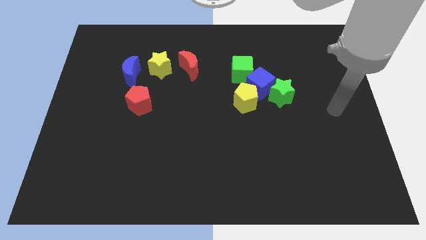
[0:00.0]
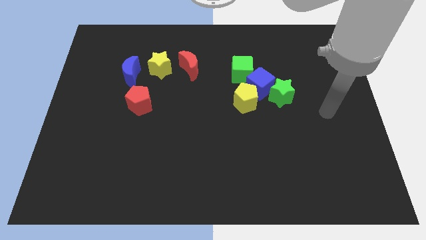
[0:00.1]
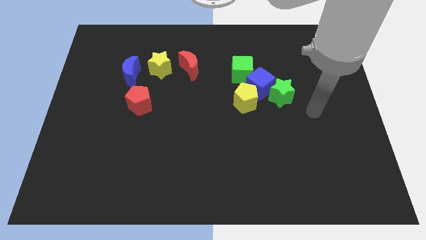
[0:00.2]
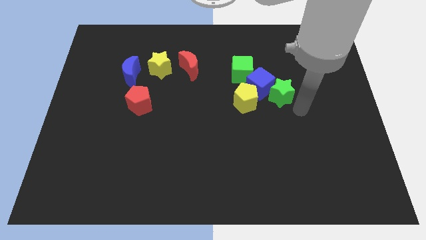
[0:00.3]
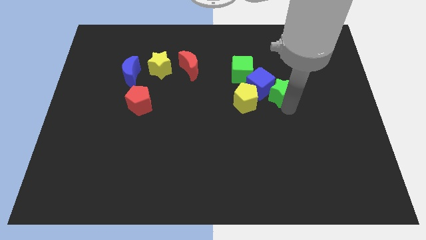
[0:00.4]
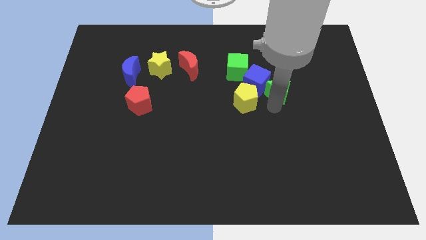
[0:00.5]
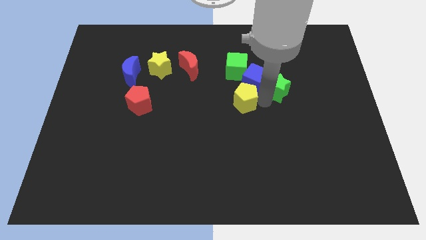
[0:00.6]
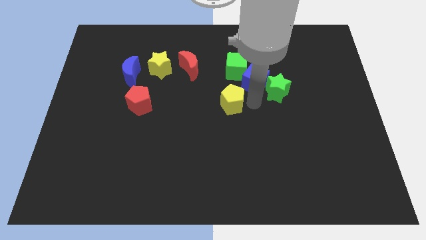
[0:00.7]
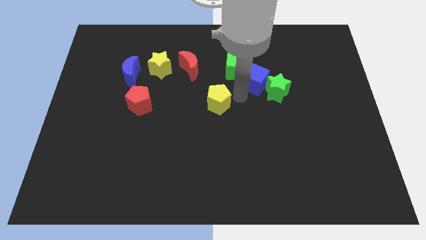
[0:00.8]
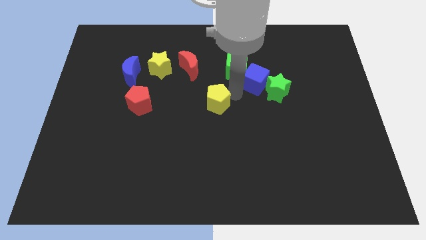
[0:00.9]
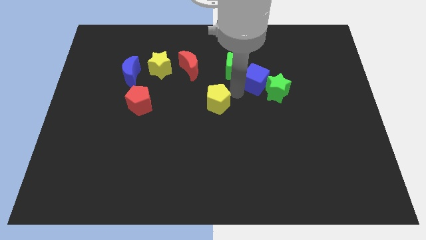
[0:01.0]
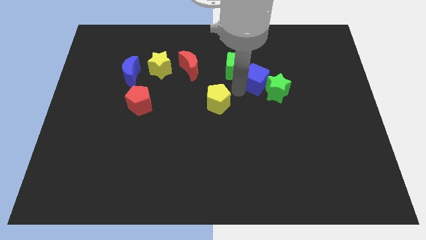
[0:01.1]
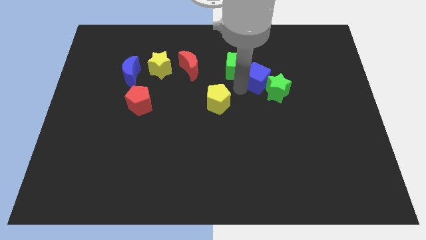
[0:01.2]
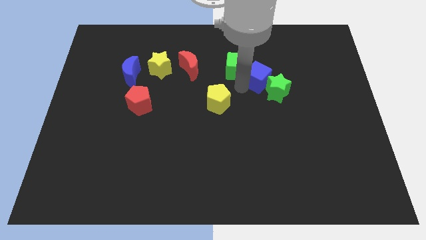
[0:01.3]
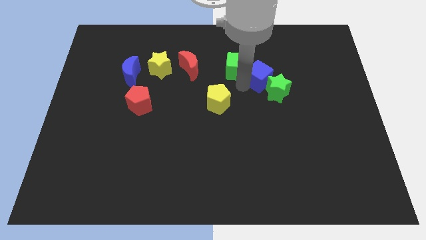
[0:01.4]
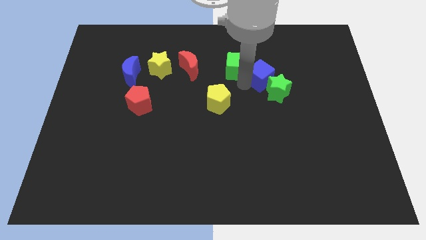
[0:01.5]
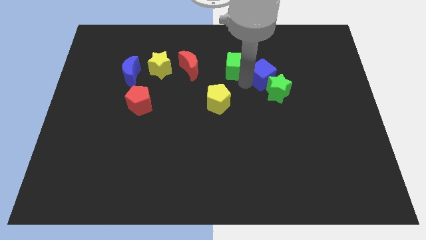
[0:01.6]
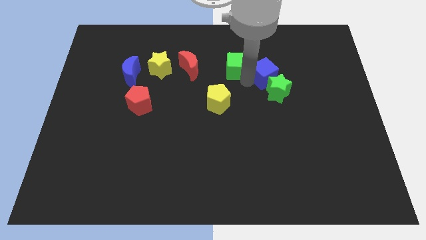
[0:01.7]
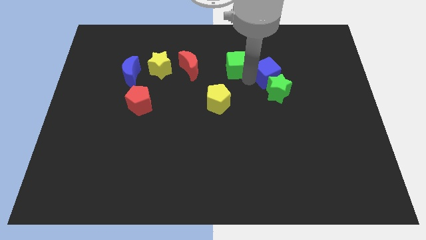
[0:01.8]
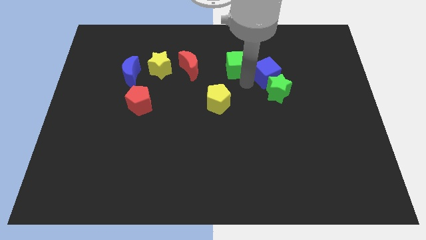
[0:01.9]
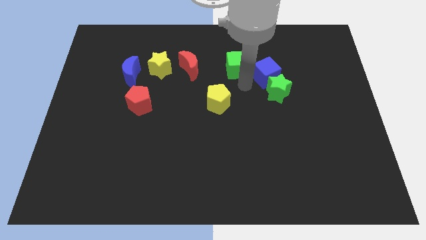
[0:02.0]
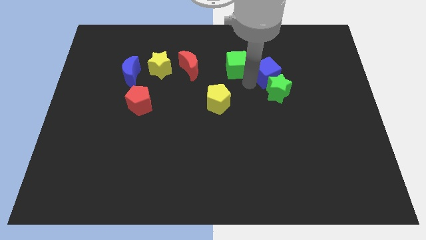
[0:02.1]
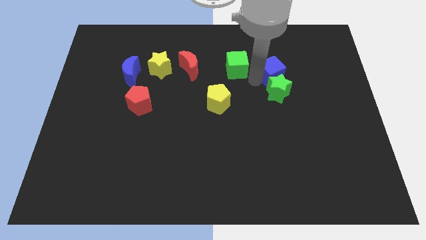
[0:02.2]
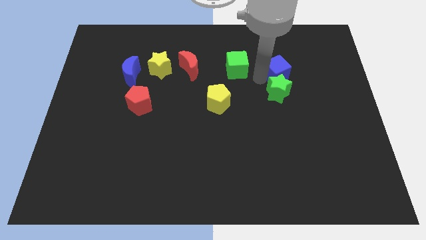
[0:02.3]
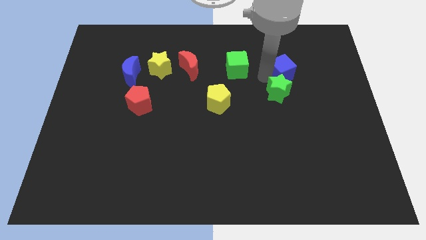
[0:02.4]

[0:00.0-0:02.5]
pull the blue cube apart from the clump

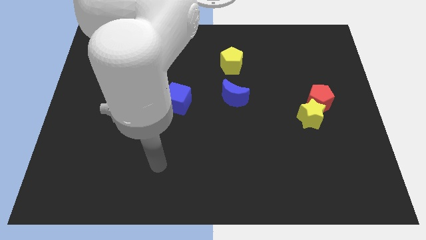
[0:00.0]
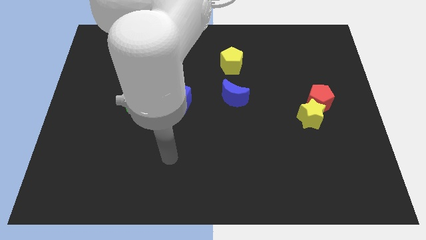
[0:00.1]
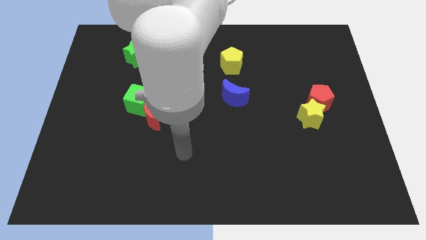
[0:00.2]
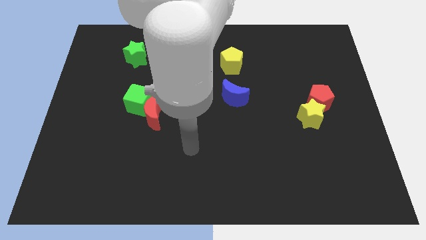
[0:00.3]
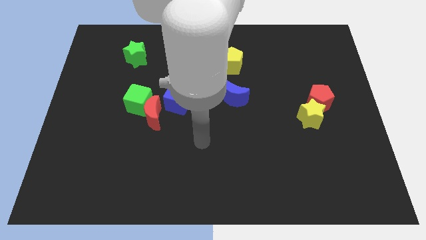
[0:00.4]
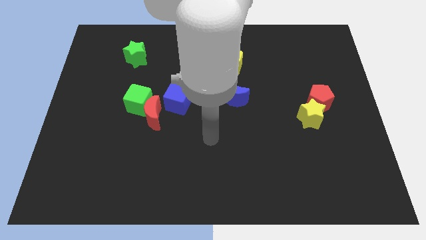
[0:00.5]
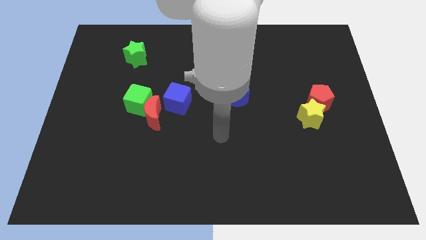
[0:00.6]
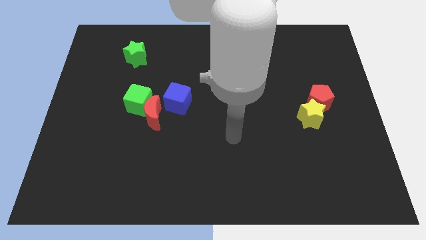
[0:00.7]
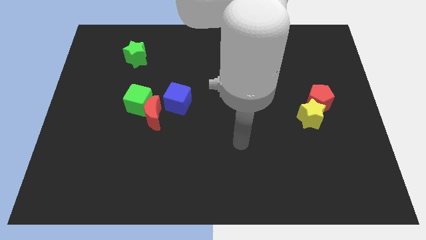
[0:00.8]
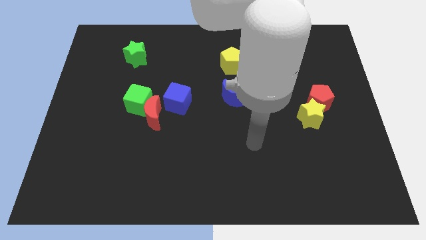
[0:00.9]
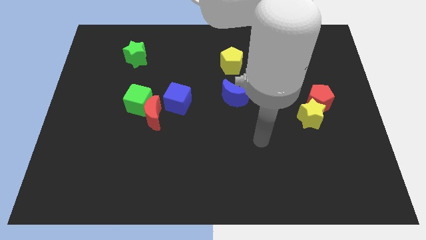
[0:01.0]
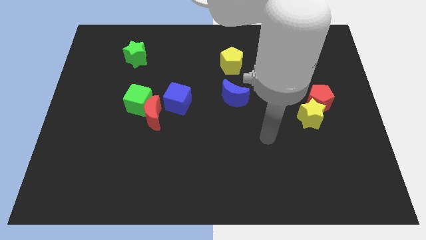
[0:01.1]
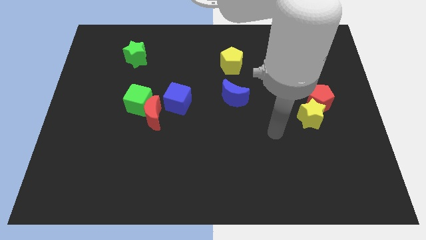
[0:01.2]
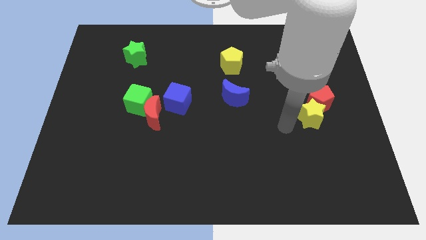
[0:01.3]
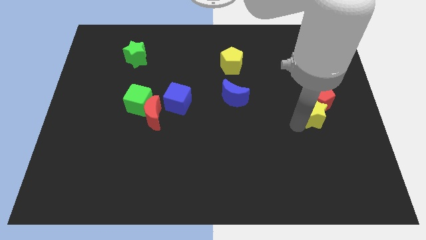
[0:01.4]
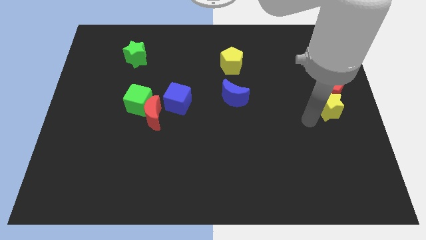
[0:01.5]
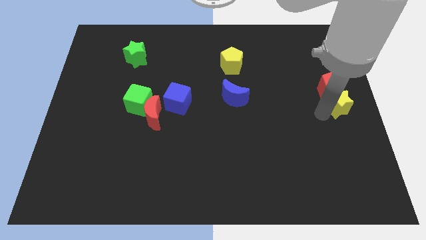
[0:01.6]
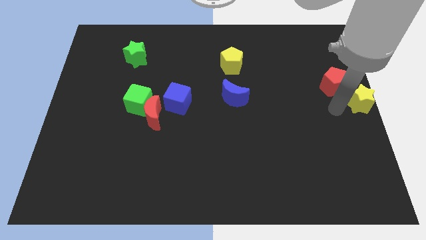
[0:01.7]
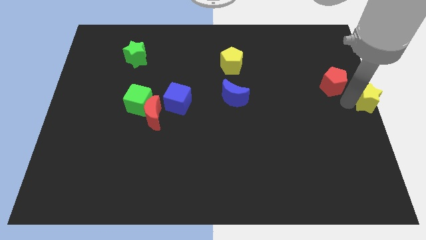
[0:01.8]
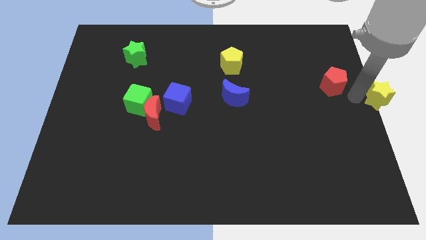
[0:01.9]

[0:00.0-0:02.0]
pull the red pentagon apart from the yellow star

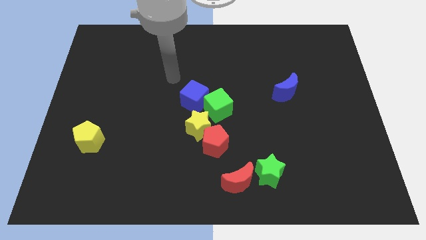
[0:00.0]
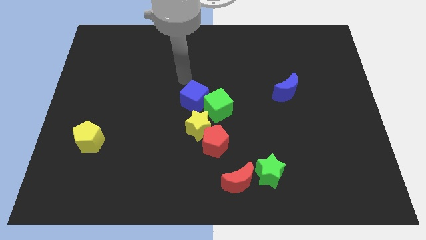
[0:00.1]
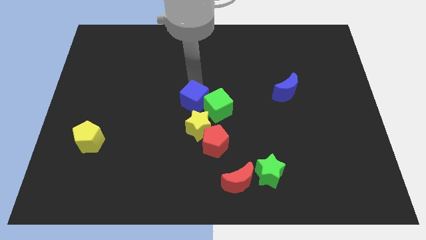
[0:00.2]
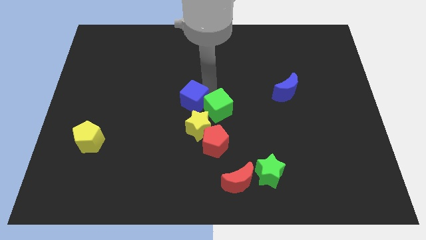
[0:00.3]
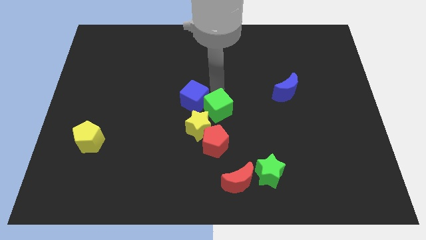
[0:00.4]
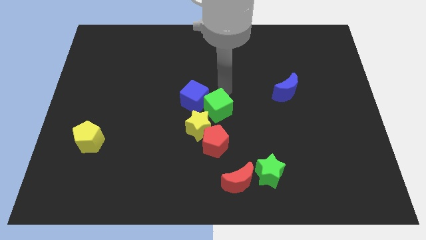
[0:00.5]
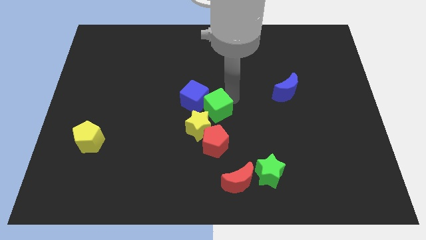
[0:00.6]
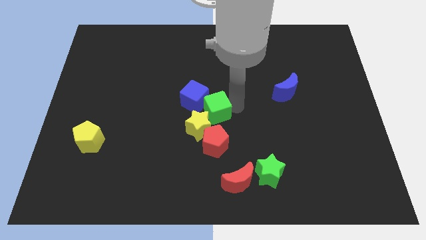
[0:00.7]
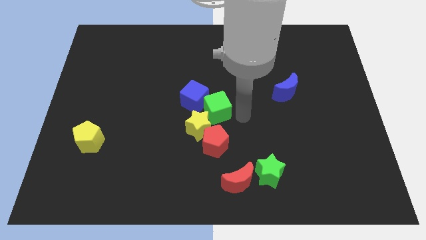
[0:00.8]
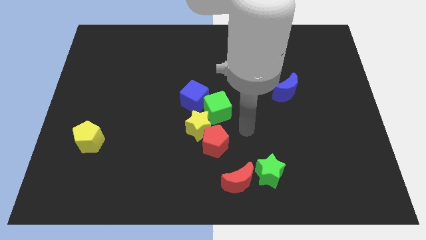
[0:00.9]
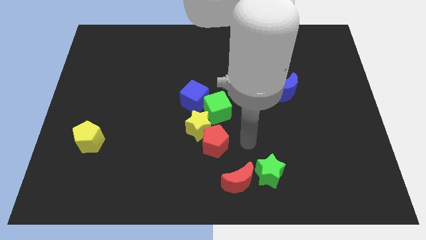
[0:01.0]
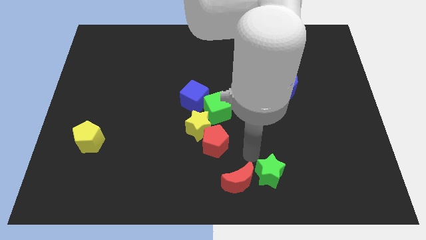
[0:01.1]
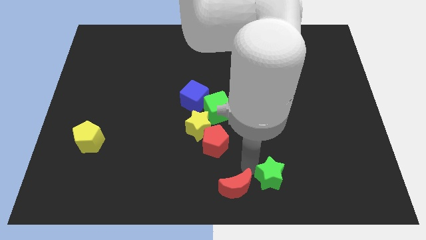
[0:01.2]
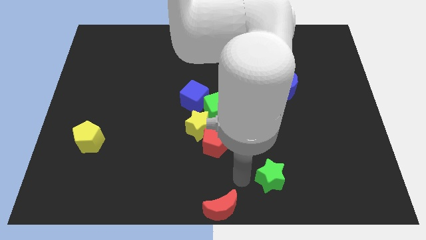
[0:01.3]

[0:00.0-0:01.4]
separate the green star from the red moon

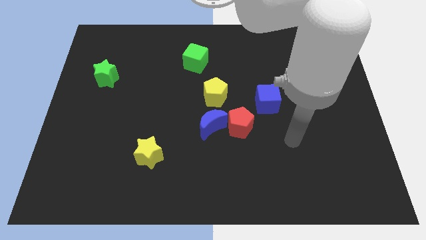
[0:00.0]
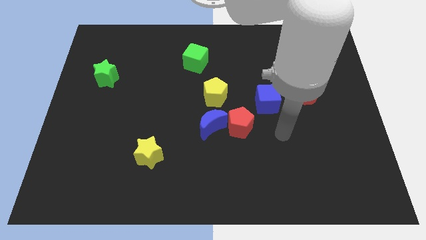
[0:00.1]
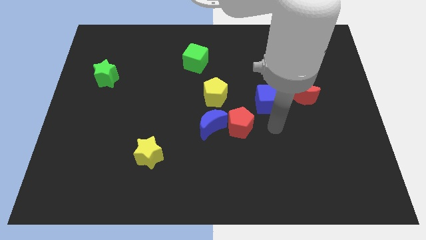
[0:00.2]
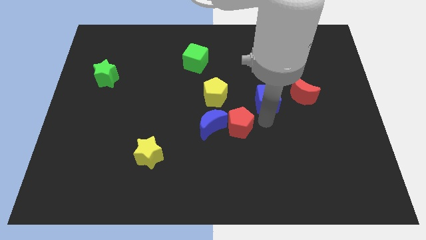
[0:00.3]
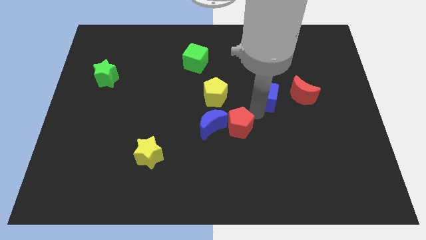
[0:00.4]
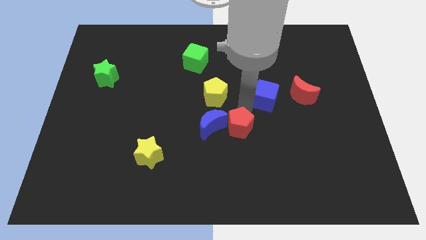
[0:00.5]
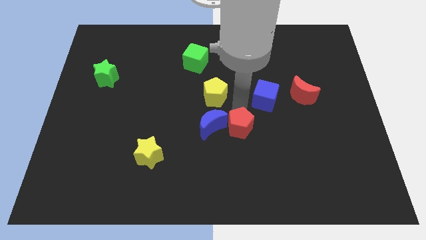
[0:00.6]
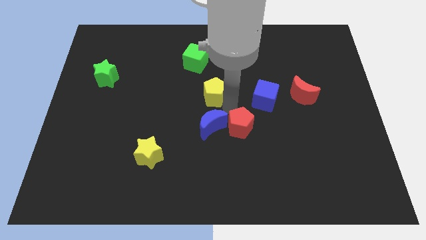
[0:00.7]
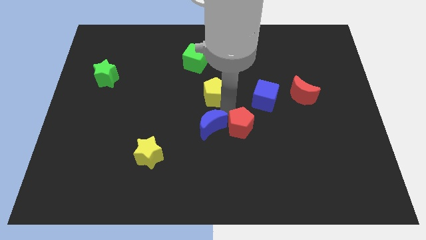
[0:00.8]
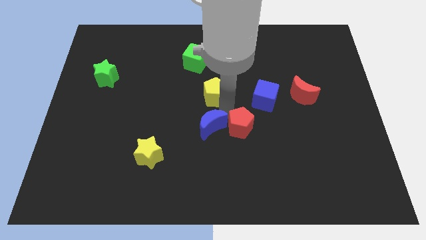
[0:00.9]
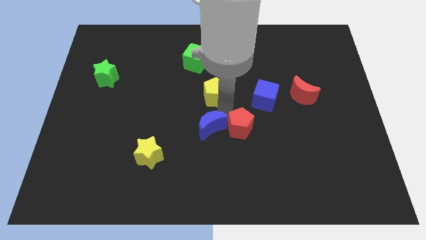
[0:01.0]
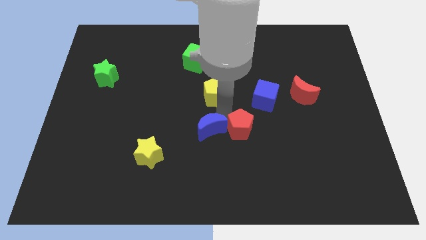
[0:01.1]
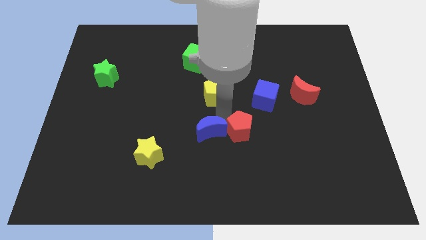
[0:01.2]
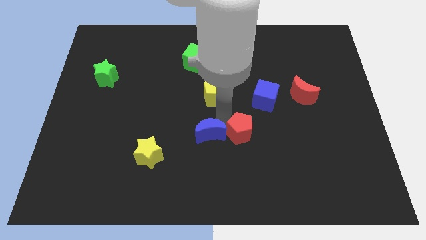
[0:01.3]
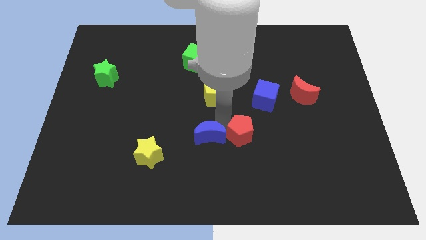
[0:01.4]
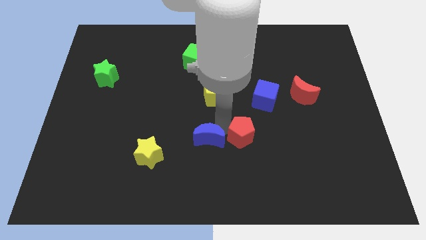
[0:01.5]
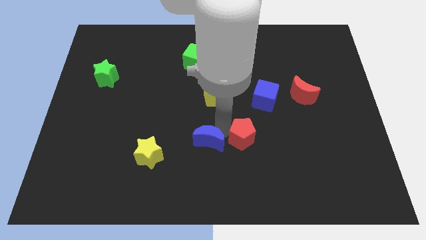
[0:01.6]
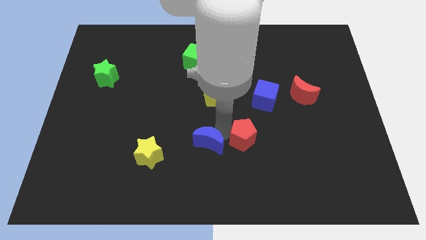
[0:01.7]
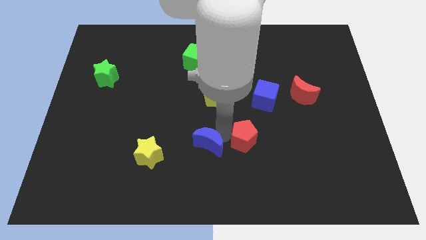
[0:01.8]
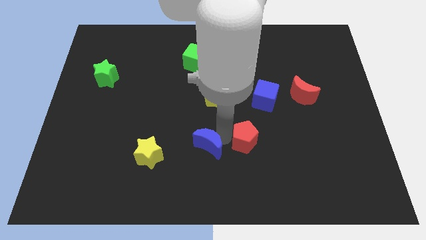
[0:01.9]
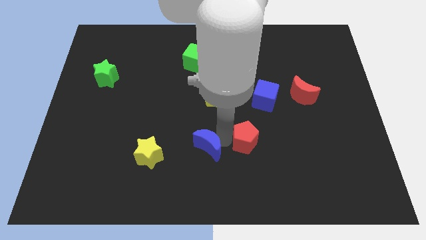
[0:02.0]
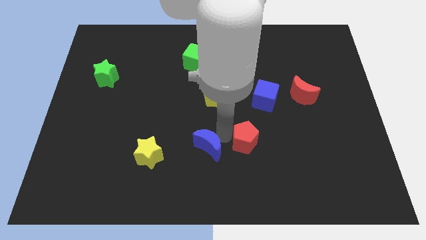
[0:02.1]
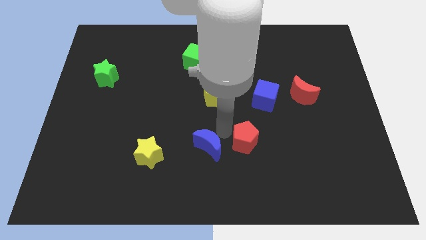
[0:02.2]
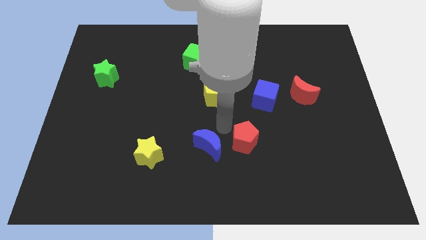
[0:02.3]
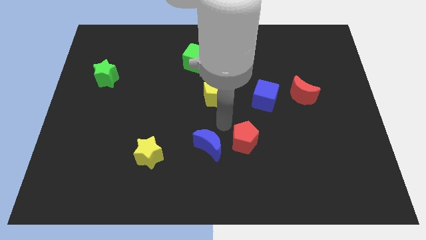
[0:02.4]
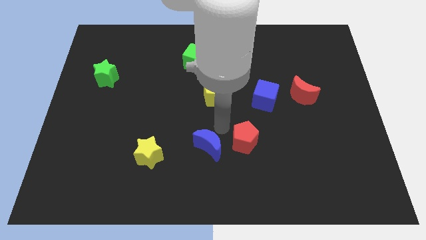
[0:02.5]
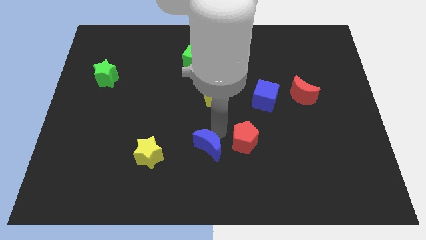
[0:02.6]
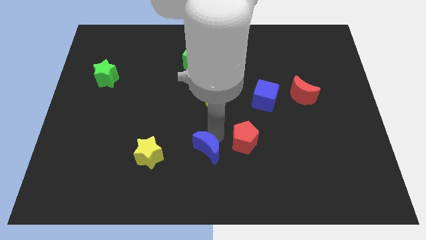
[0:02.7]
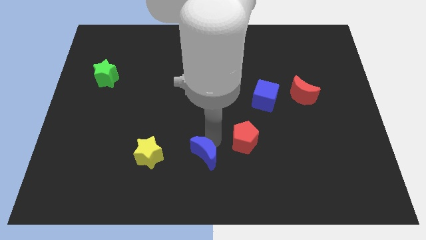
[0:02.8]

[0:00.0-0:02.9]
separate the blue moon from the red pentagon and yellow pentagon

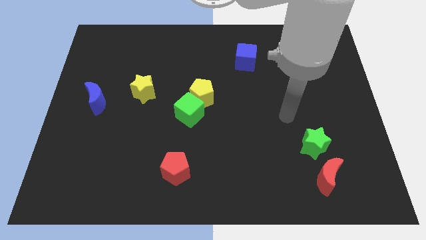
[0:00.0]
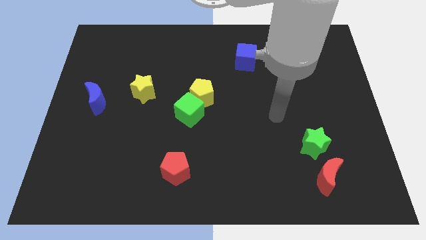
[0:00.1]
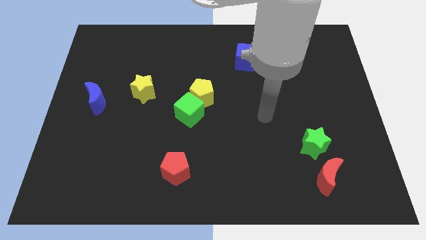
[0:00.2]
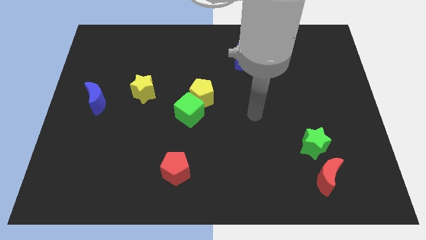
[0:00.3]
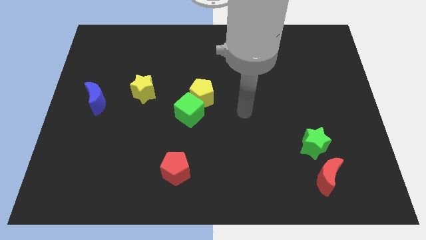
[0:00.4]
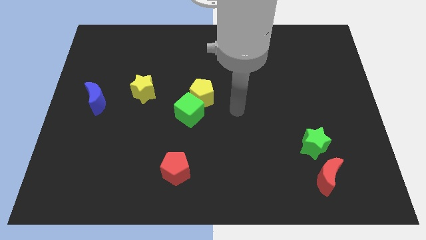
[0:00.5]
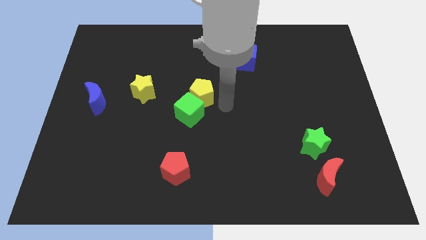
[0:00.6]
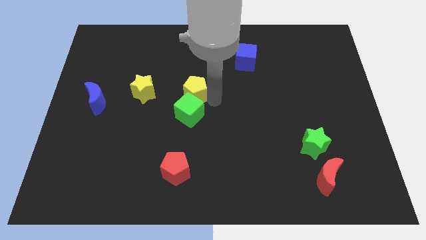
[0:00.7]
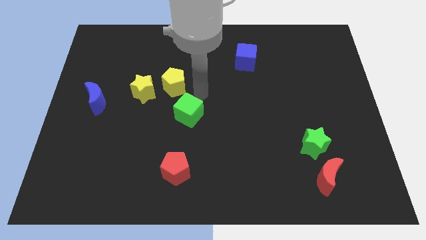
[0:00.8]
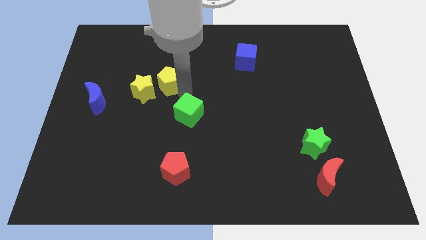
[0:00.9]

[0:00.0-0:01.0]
move the green cube away from the yellow pentagon
